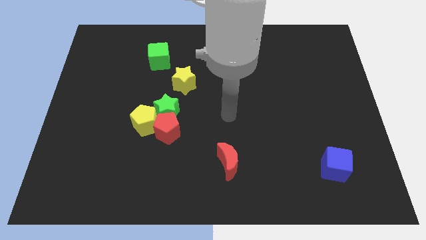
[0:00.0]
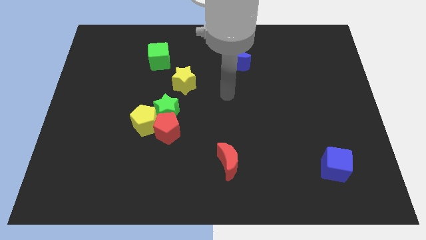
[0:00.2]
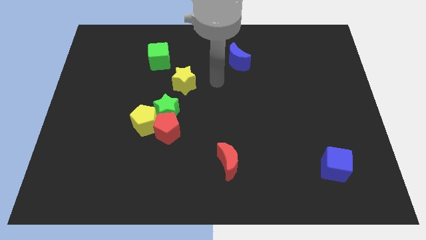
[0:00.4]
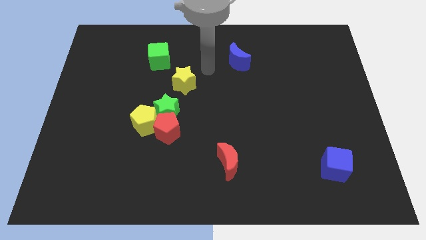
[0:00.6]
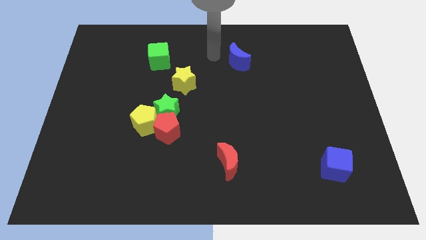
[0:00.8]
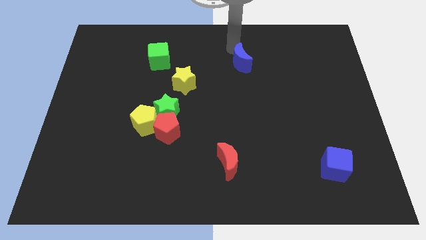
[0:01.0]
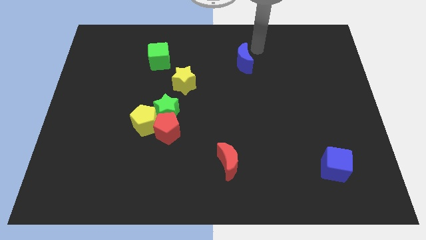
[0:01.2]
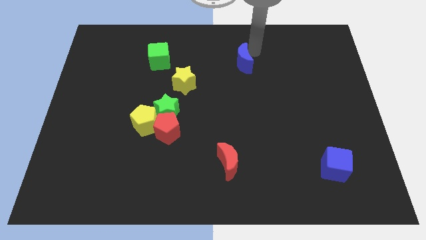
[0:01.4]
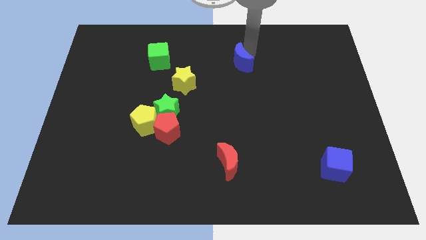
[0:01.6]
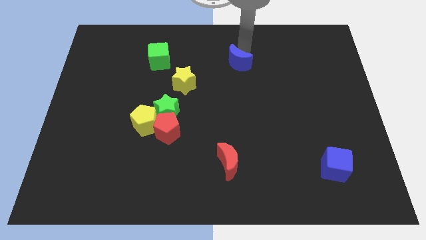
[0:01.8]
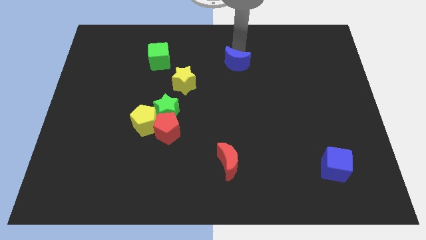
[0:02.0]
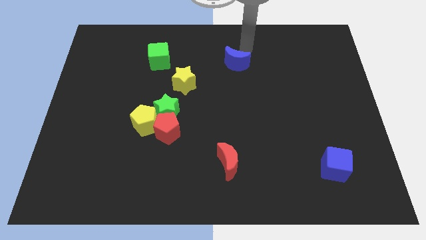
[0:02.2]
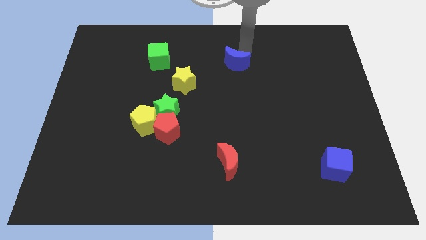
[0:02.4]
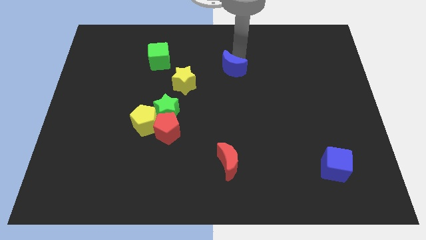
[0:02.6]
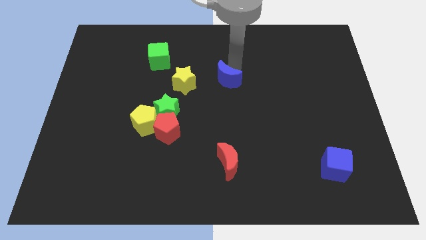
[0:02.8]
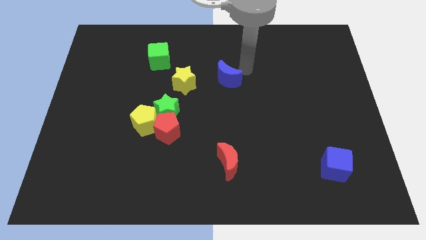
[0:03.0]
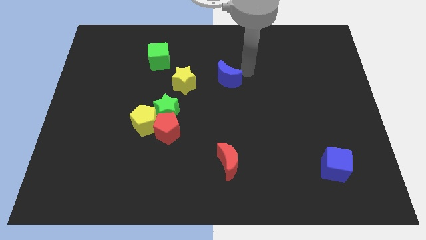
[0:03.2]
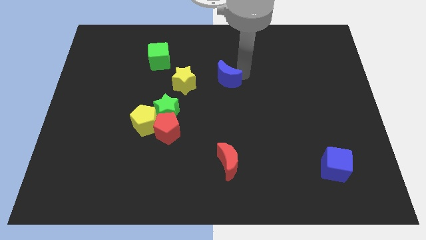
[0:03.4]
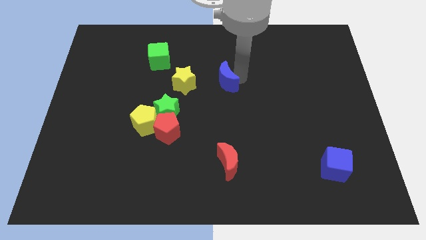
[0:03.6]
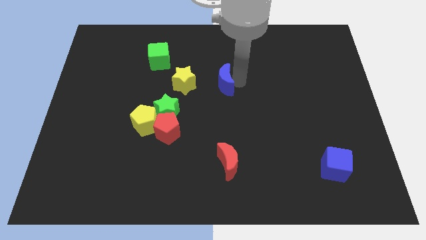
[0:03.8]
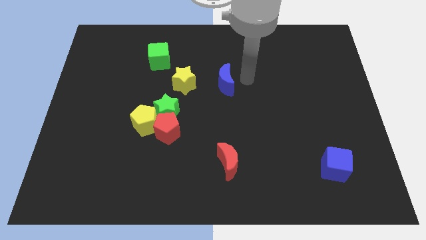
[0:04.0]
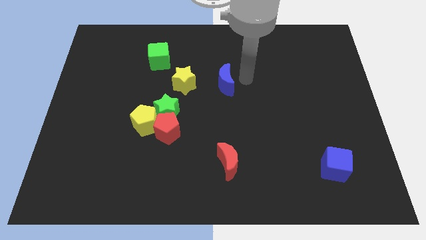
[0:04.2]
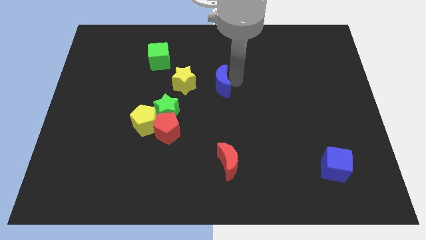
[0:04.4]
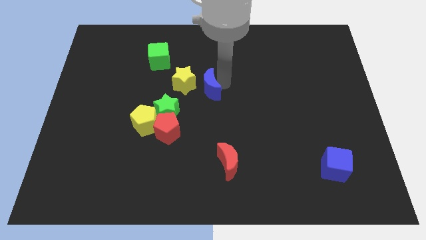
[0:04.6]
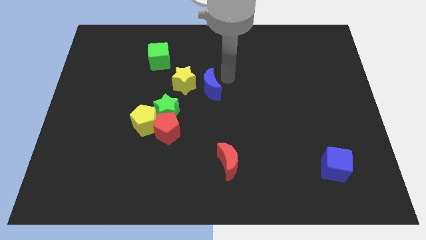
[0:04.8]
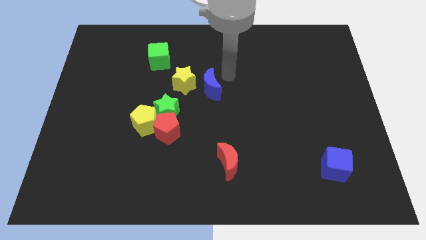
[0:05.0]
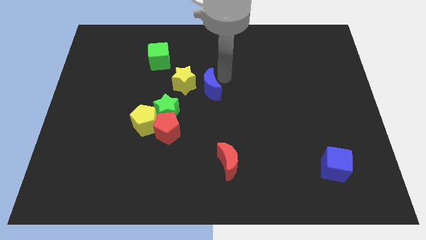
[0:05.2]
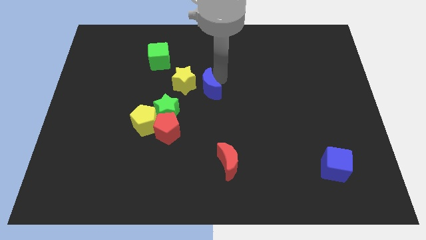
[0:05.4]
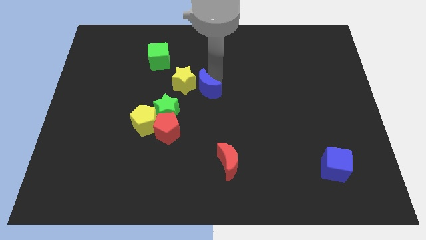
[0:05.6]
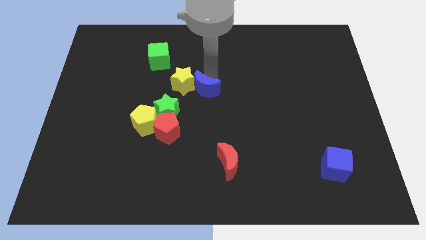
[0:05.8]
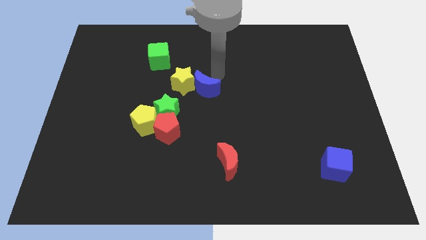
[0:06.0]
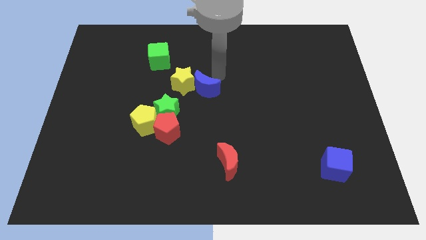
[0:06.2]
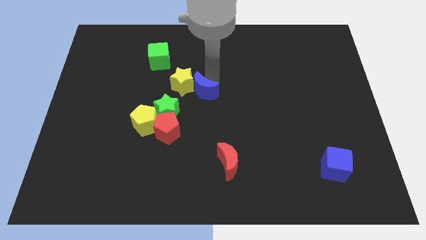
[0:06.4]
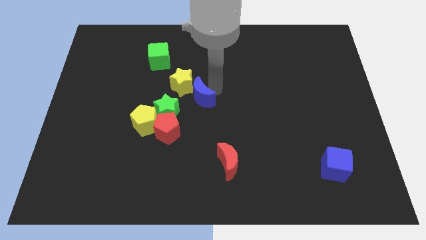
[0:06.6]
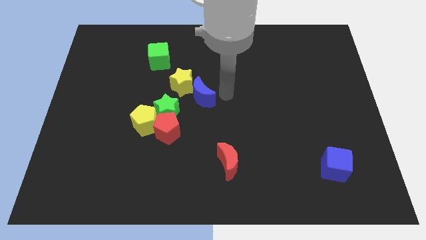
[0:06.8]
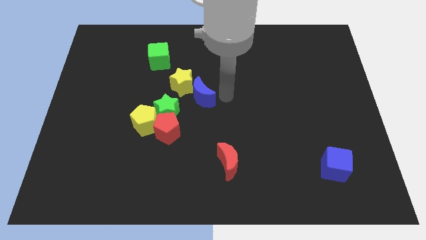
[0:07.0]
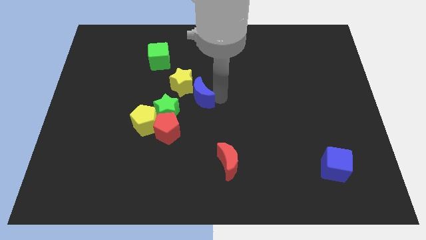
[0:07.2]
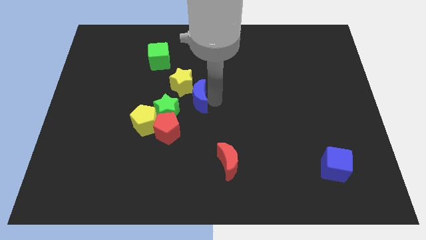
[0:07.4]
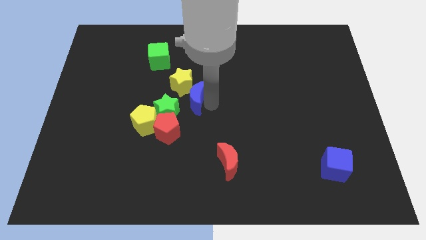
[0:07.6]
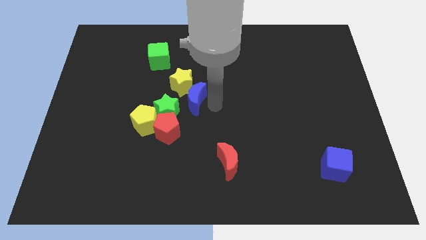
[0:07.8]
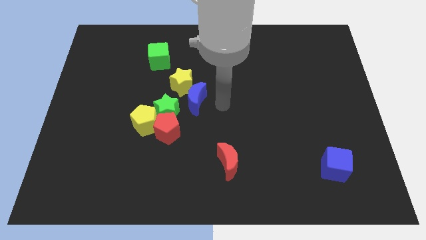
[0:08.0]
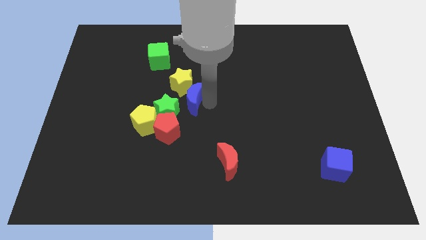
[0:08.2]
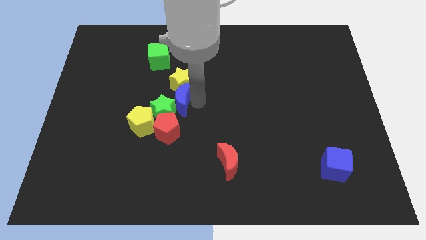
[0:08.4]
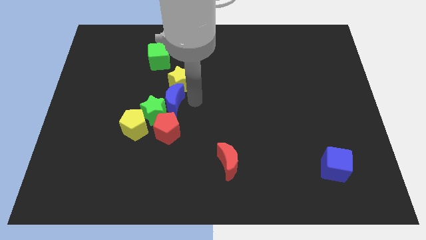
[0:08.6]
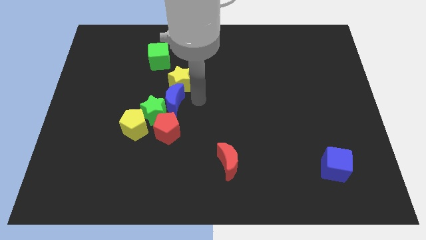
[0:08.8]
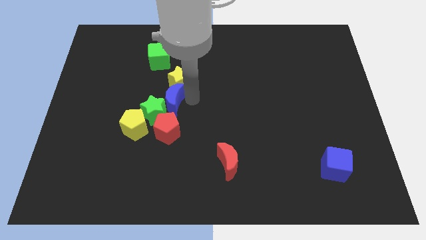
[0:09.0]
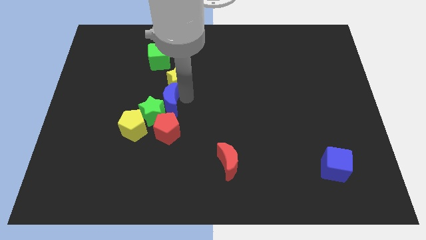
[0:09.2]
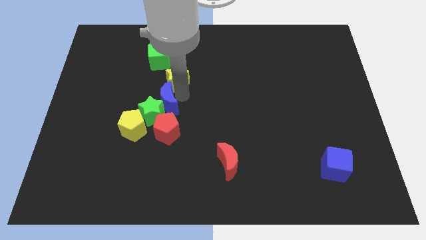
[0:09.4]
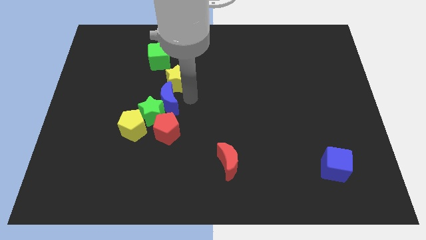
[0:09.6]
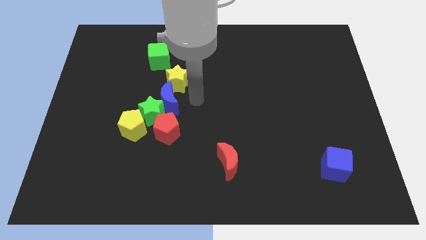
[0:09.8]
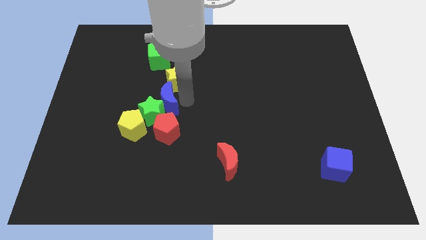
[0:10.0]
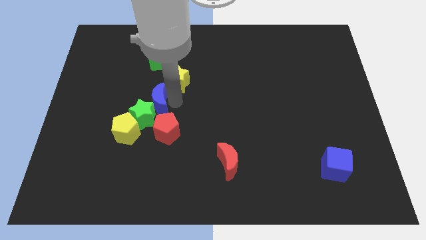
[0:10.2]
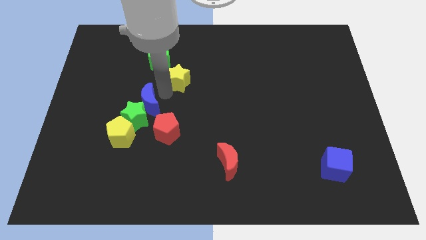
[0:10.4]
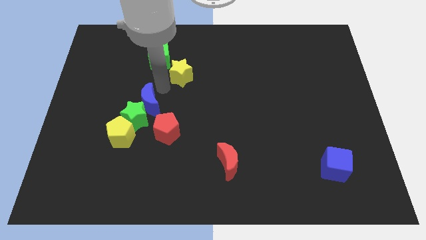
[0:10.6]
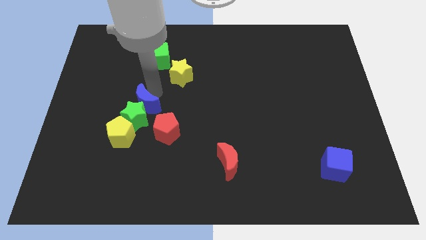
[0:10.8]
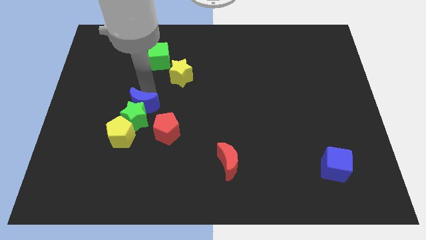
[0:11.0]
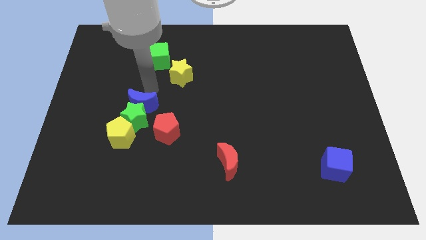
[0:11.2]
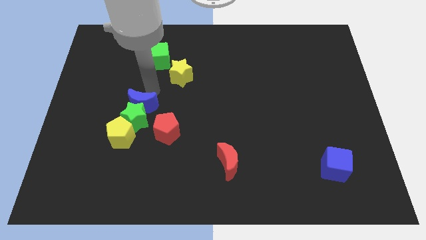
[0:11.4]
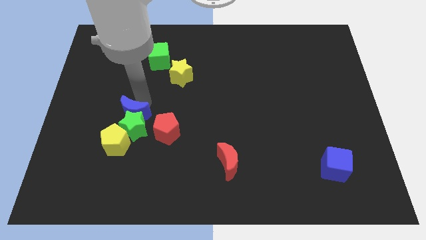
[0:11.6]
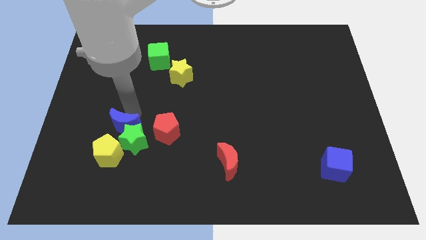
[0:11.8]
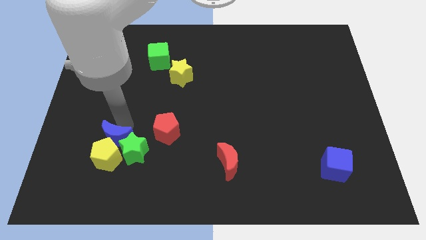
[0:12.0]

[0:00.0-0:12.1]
push the blue moon towards the yellow pentagon
